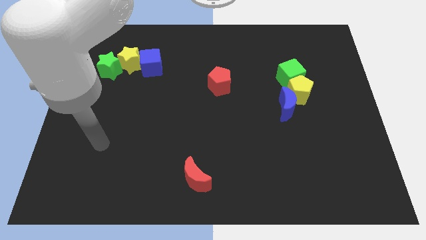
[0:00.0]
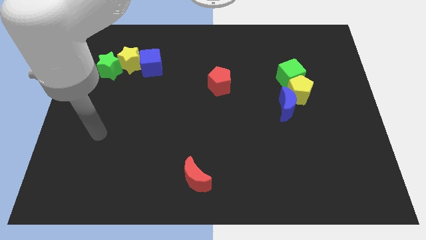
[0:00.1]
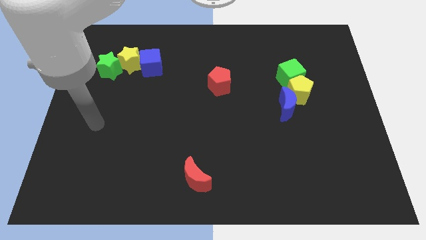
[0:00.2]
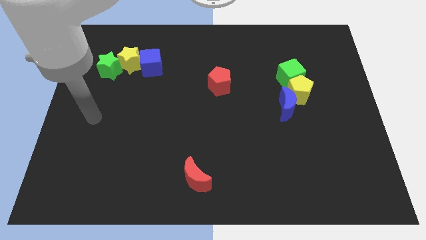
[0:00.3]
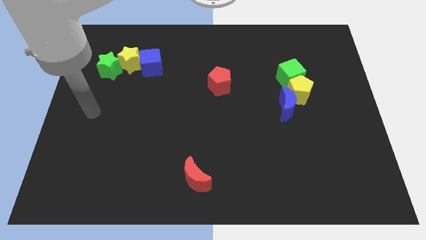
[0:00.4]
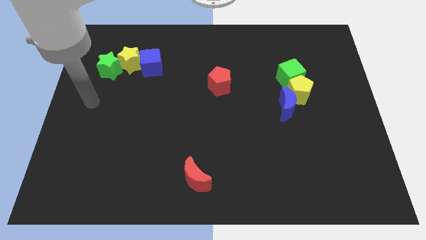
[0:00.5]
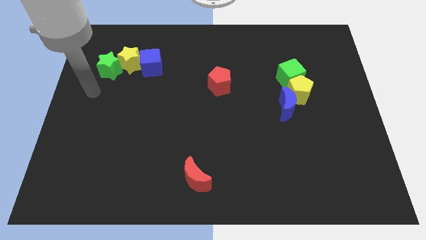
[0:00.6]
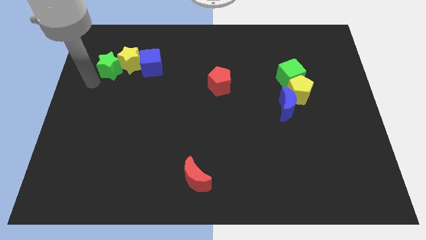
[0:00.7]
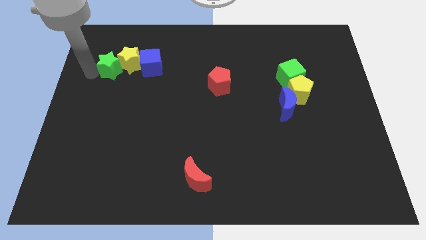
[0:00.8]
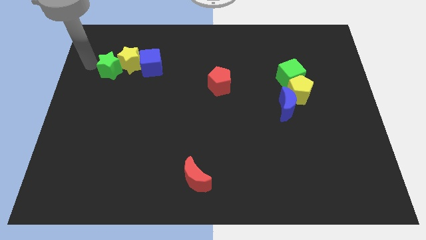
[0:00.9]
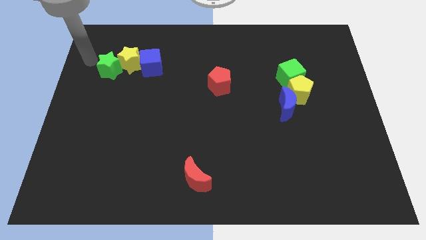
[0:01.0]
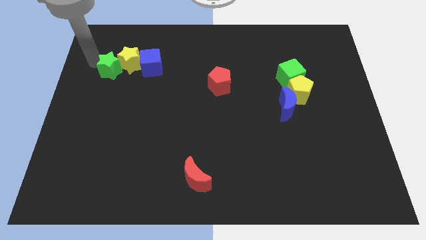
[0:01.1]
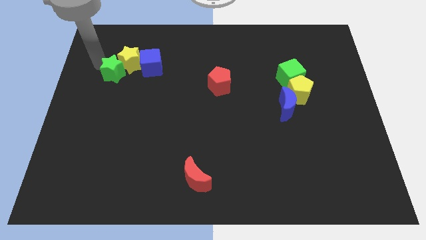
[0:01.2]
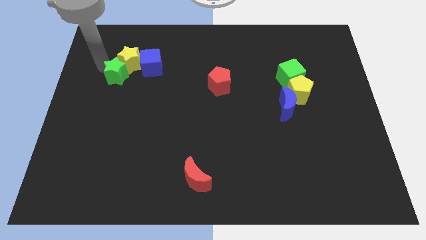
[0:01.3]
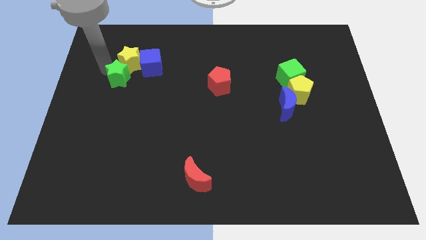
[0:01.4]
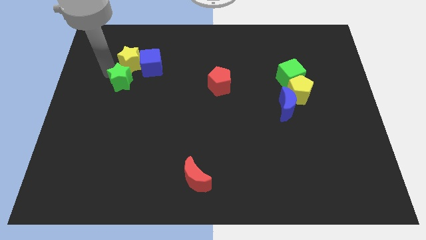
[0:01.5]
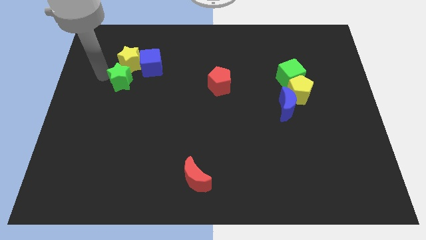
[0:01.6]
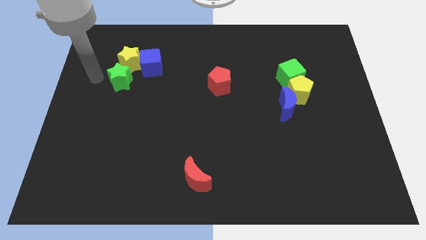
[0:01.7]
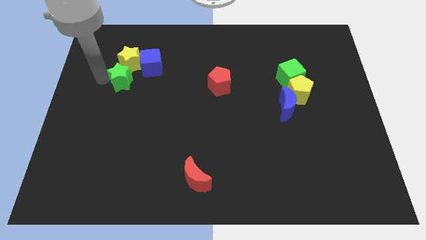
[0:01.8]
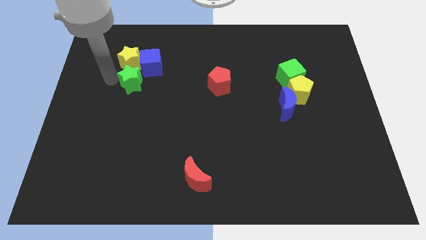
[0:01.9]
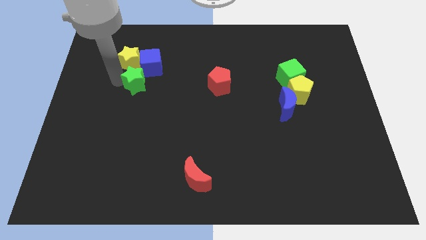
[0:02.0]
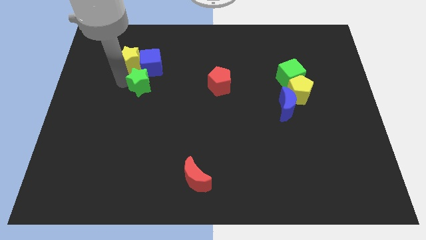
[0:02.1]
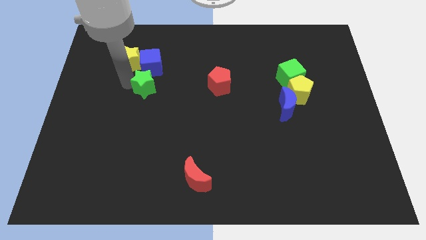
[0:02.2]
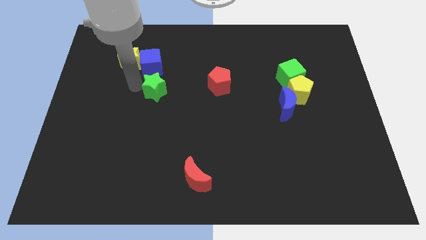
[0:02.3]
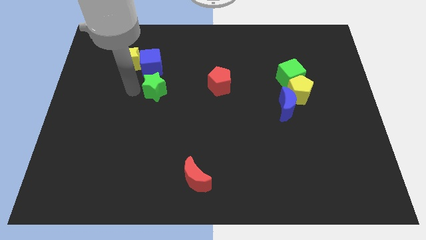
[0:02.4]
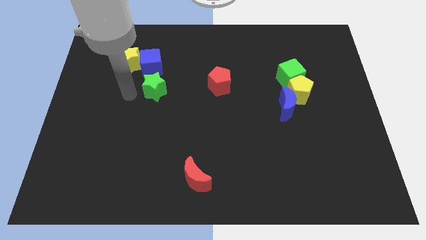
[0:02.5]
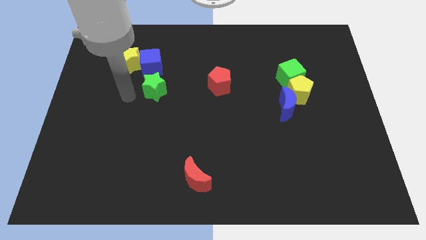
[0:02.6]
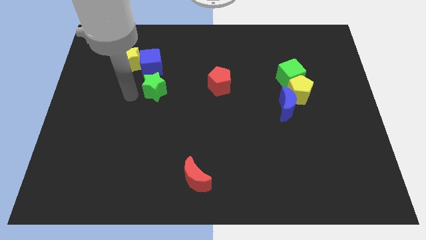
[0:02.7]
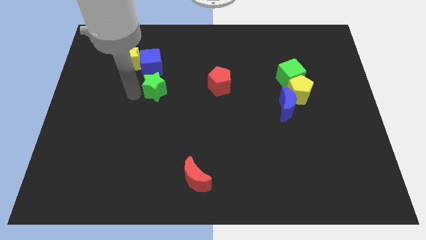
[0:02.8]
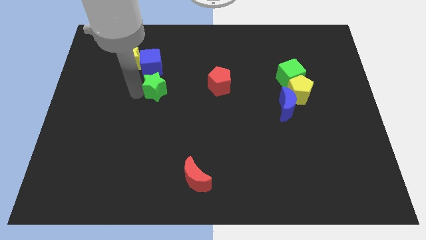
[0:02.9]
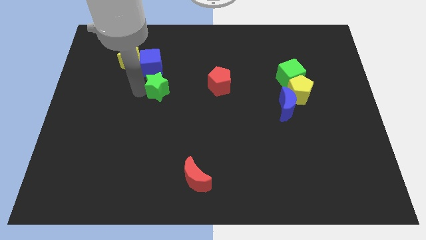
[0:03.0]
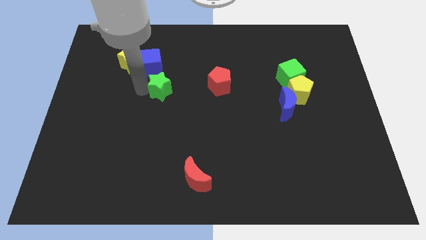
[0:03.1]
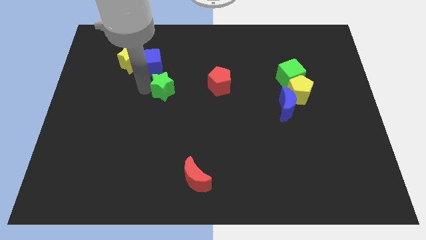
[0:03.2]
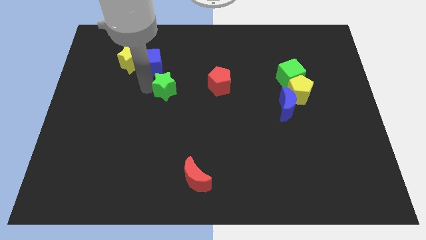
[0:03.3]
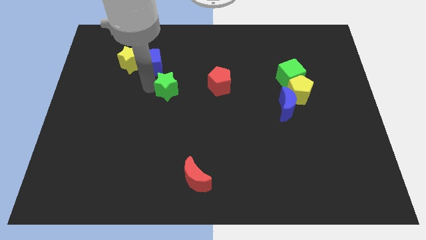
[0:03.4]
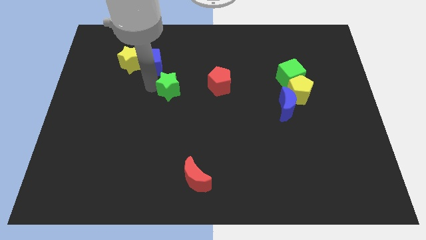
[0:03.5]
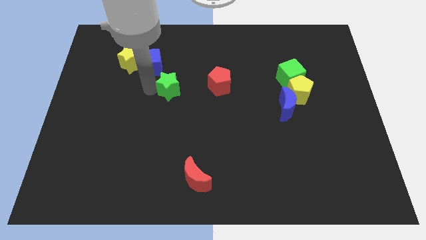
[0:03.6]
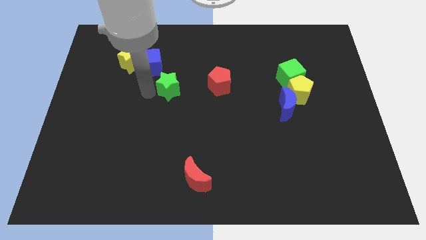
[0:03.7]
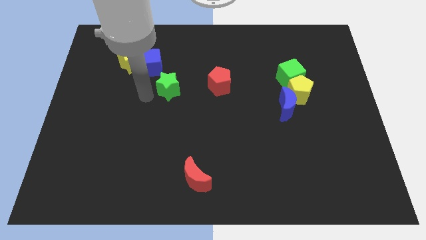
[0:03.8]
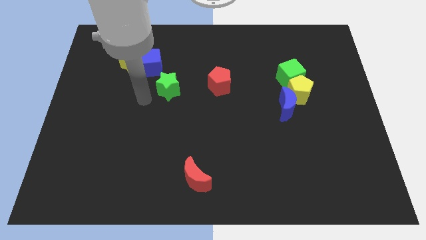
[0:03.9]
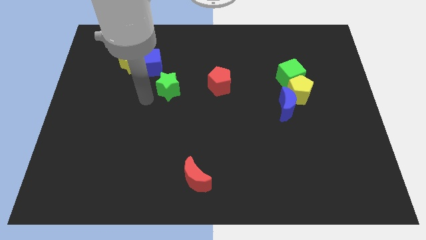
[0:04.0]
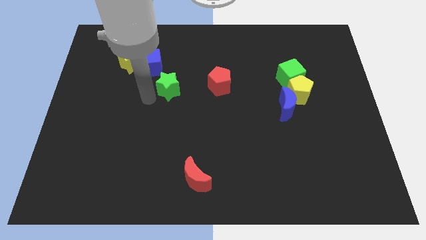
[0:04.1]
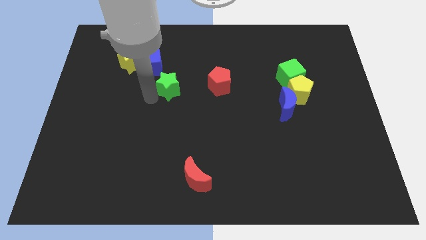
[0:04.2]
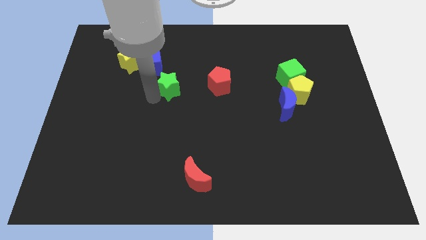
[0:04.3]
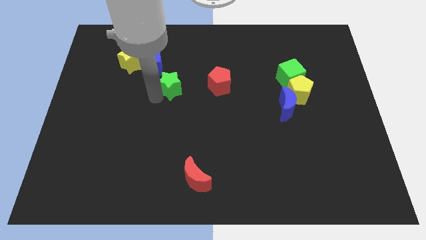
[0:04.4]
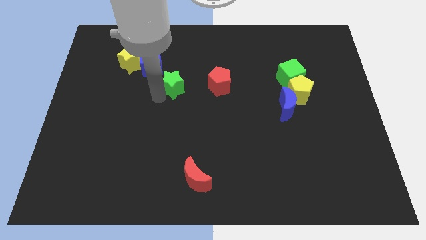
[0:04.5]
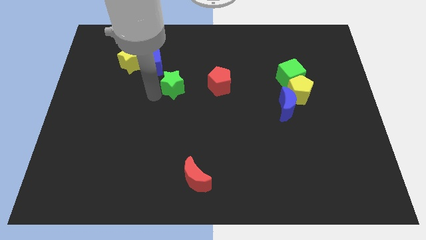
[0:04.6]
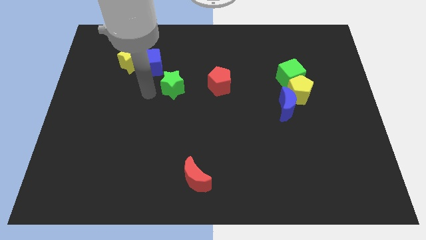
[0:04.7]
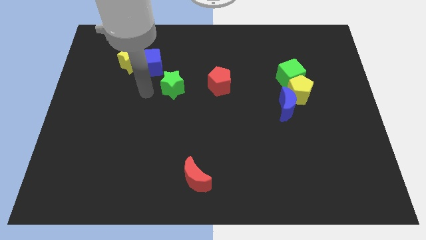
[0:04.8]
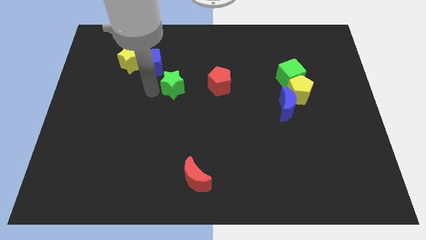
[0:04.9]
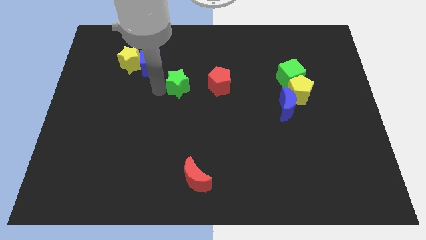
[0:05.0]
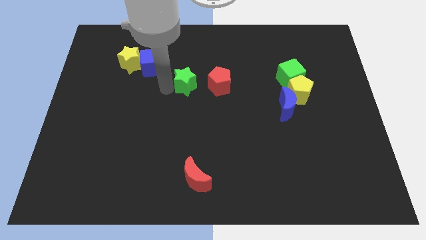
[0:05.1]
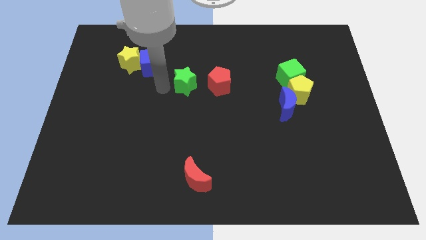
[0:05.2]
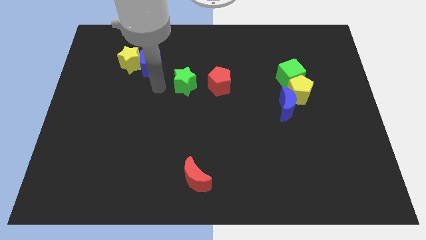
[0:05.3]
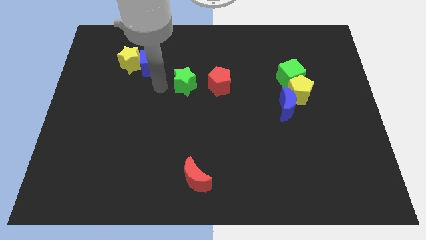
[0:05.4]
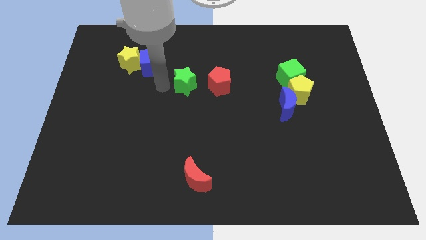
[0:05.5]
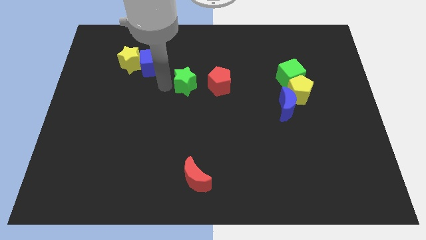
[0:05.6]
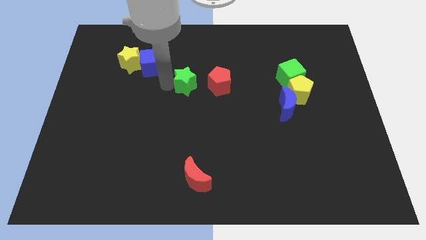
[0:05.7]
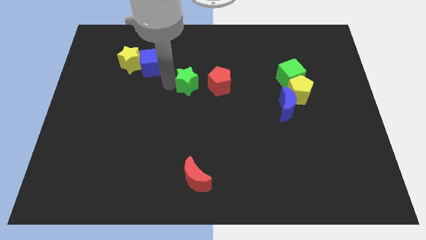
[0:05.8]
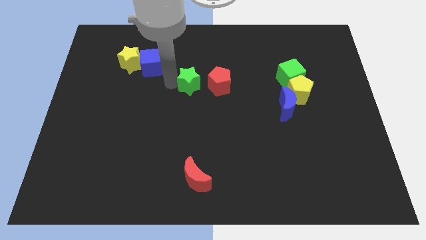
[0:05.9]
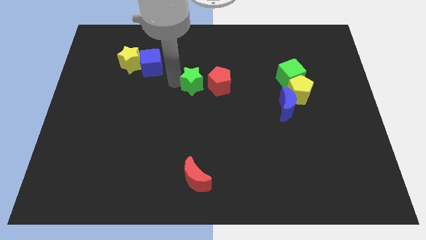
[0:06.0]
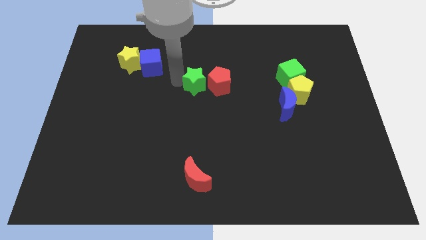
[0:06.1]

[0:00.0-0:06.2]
slide the green star to the red pentagon

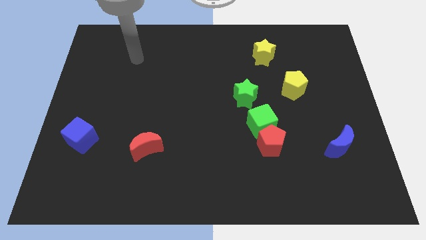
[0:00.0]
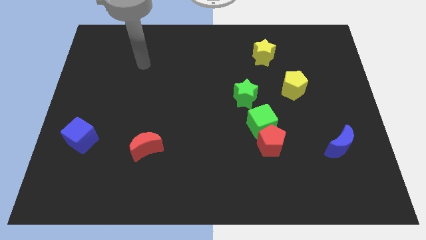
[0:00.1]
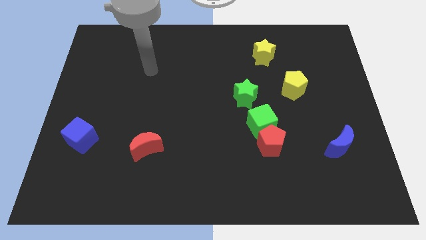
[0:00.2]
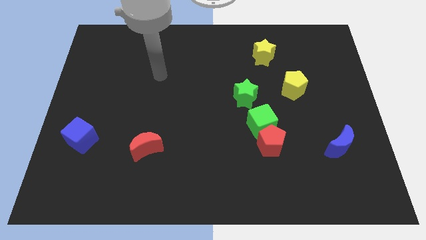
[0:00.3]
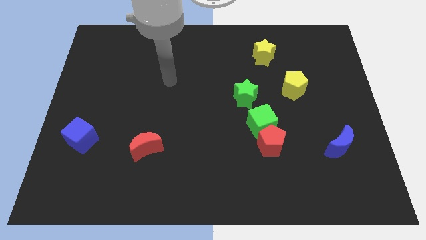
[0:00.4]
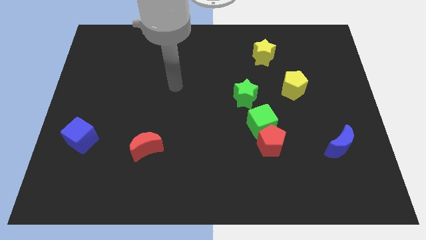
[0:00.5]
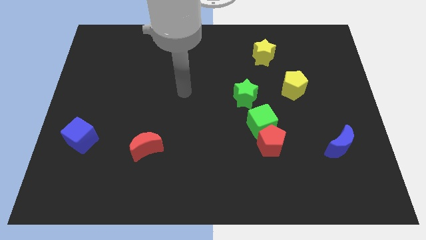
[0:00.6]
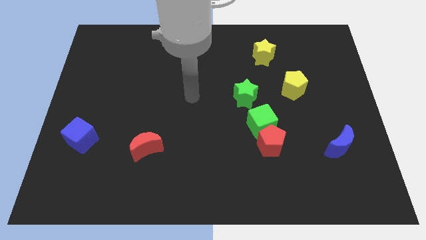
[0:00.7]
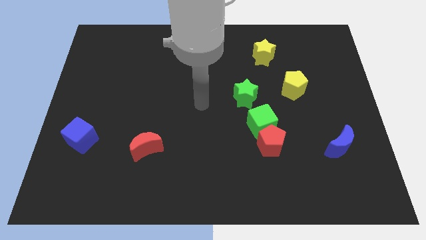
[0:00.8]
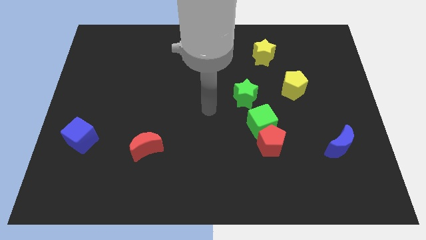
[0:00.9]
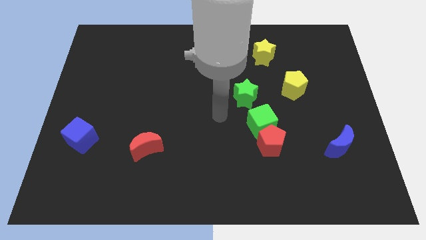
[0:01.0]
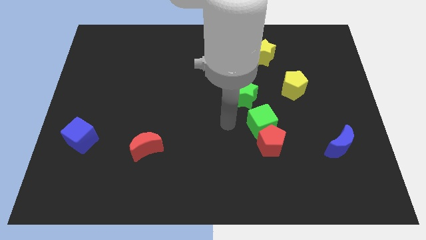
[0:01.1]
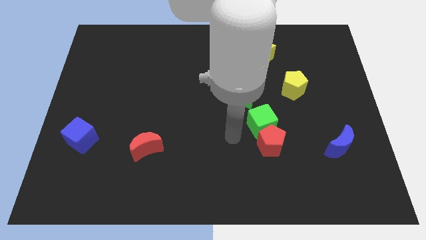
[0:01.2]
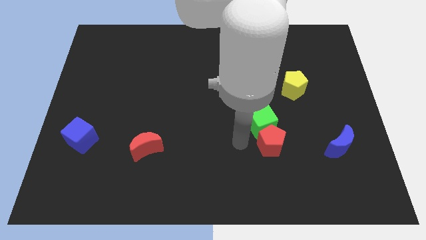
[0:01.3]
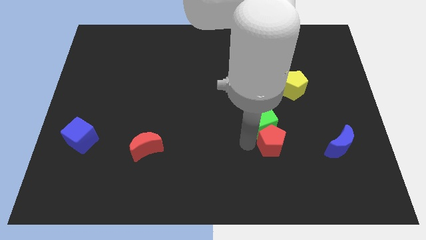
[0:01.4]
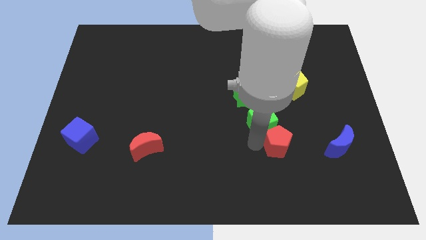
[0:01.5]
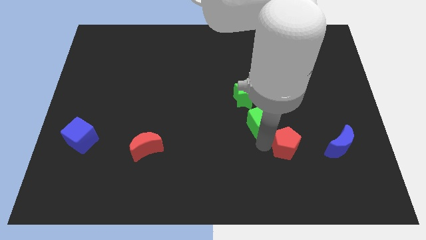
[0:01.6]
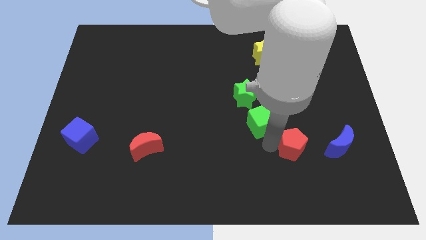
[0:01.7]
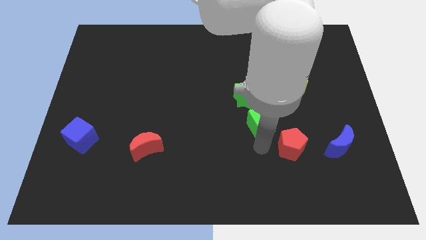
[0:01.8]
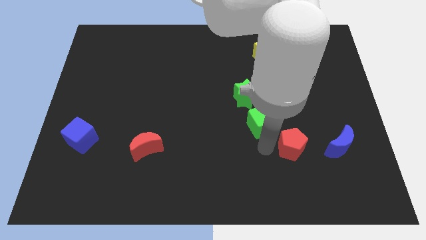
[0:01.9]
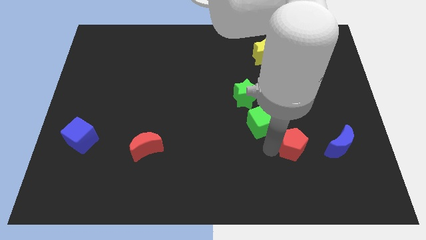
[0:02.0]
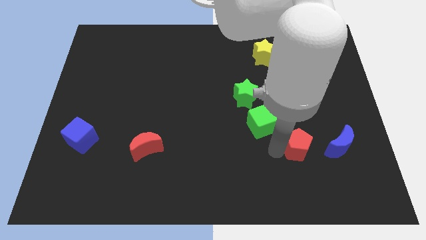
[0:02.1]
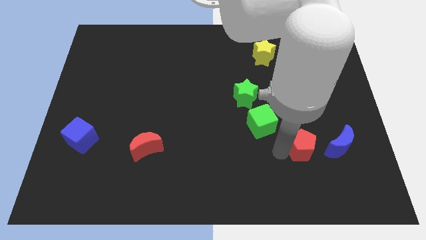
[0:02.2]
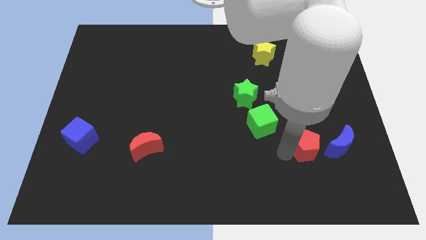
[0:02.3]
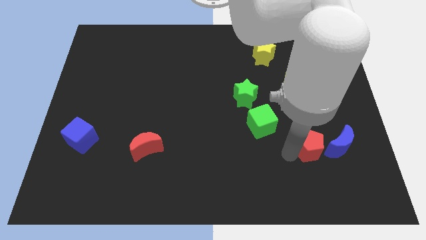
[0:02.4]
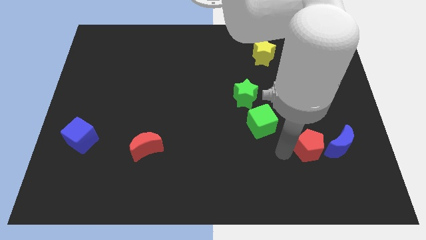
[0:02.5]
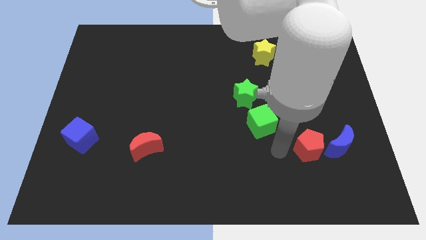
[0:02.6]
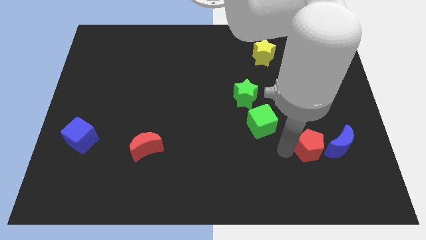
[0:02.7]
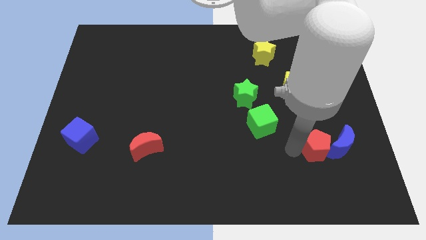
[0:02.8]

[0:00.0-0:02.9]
slide the red pentagon towards the blue moon
